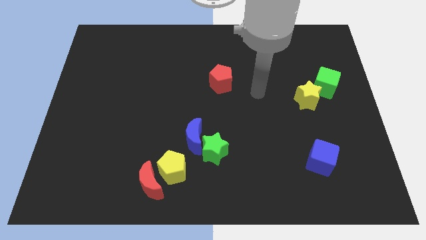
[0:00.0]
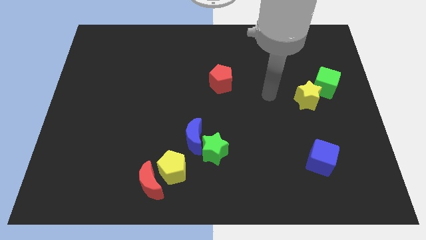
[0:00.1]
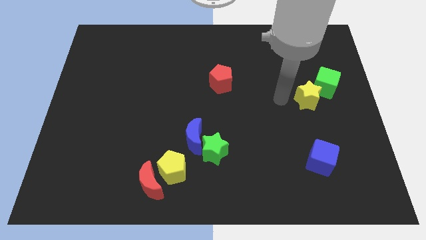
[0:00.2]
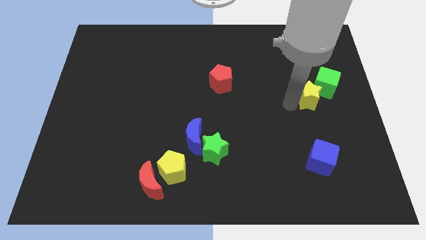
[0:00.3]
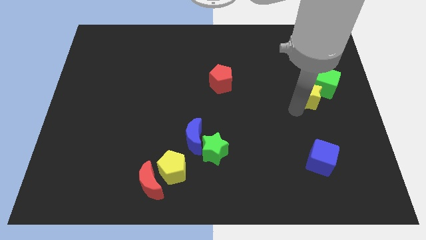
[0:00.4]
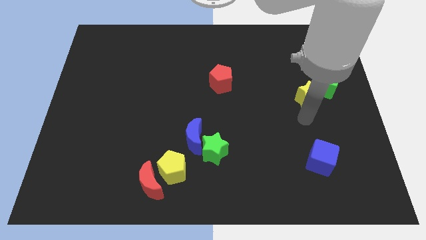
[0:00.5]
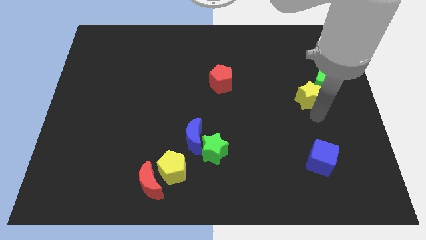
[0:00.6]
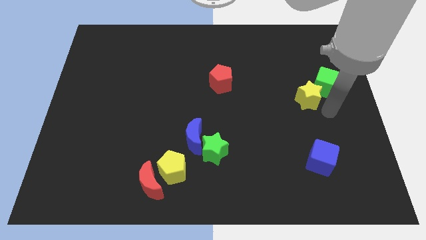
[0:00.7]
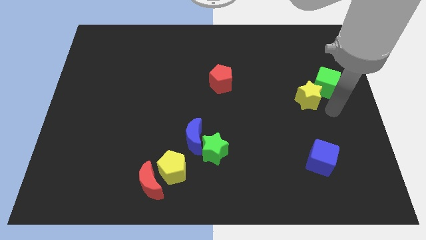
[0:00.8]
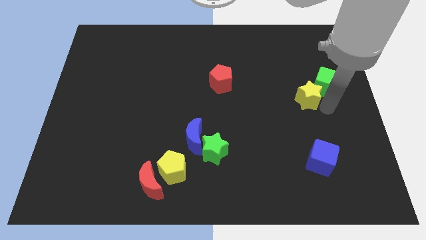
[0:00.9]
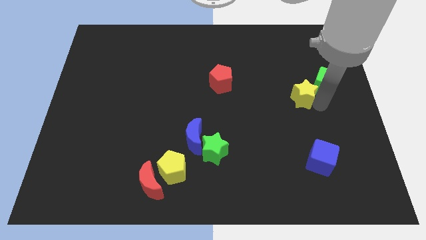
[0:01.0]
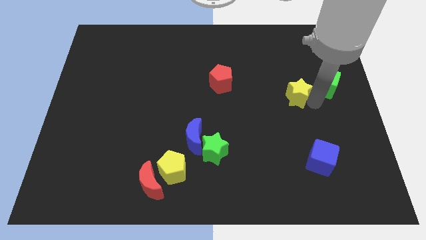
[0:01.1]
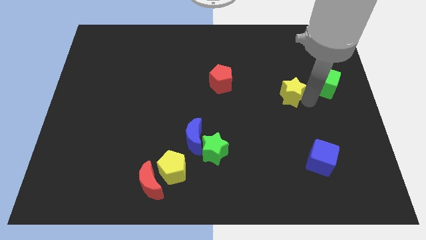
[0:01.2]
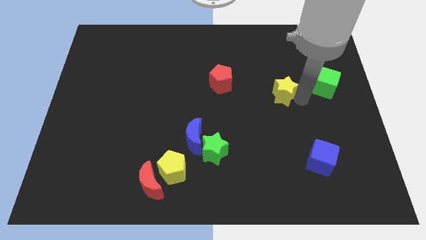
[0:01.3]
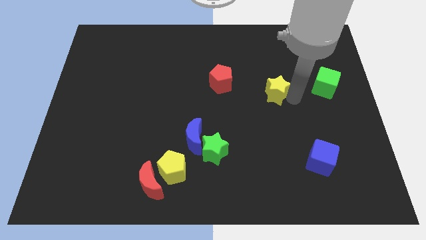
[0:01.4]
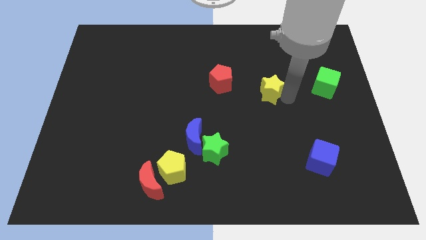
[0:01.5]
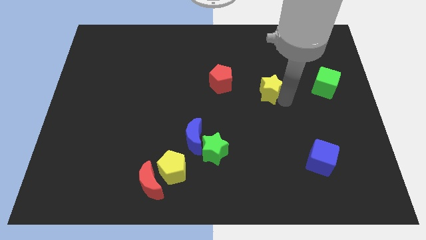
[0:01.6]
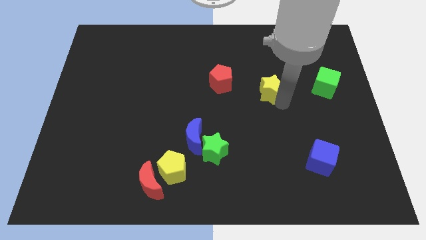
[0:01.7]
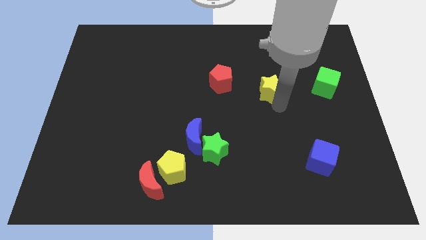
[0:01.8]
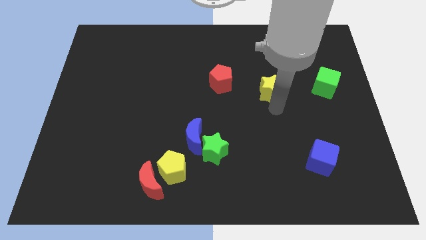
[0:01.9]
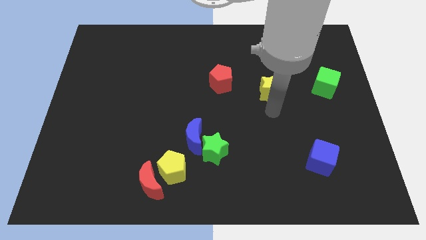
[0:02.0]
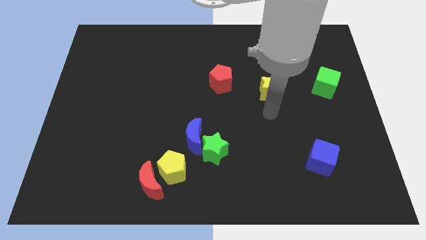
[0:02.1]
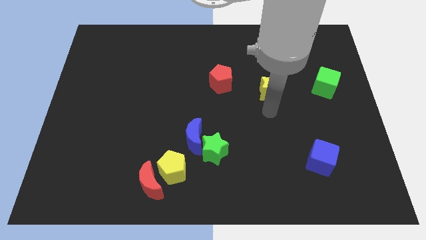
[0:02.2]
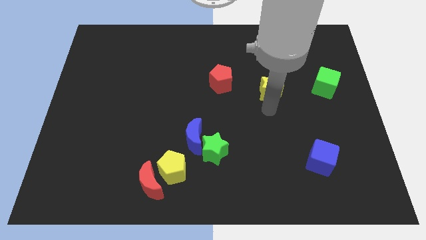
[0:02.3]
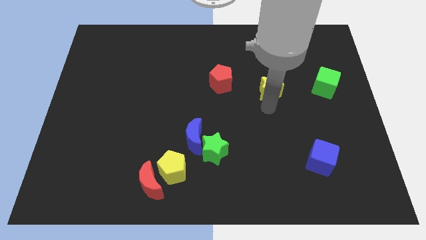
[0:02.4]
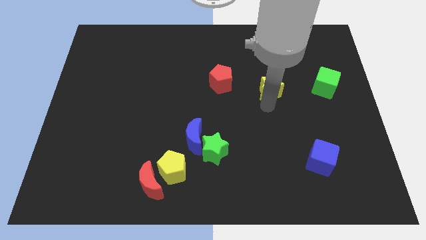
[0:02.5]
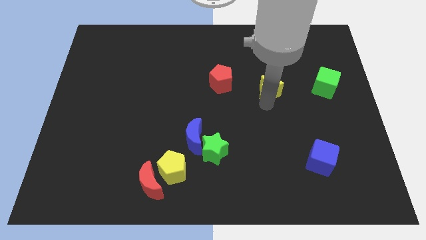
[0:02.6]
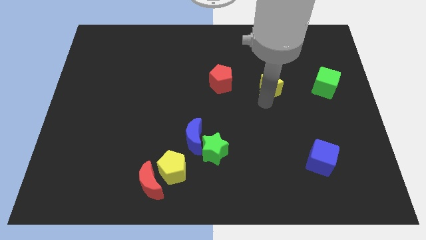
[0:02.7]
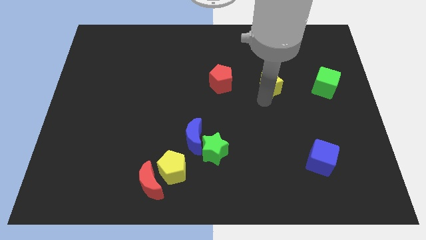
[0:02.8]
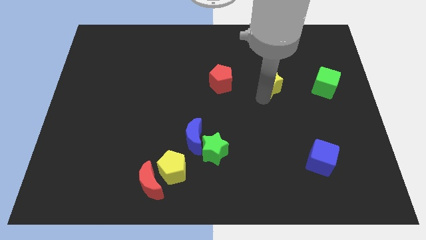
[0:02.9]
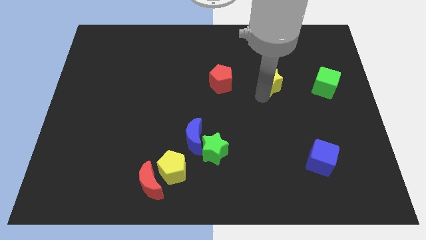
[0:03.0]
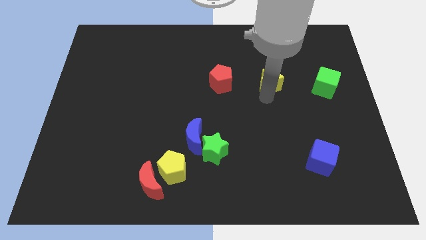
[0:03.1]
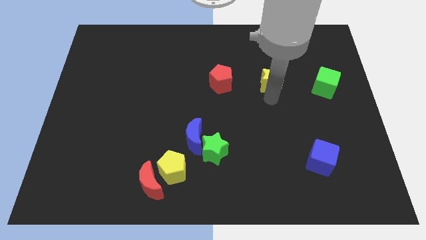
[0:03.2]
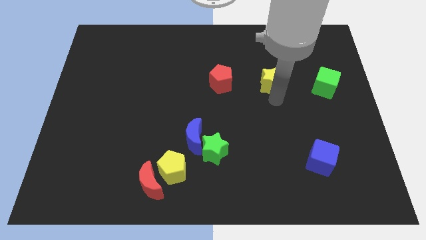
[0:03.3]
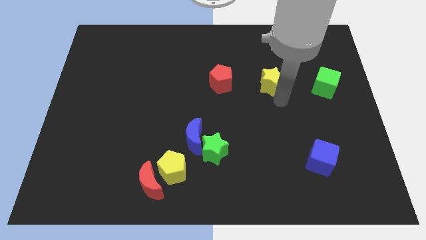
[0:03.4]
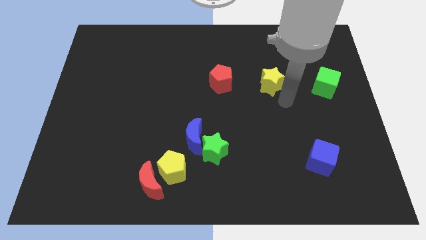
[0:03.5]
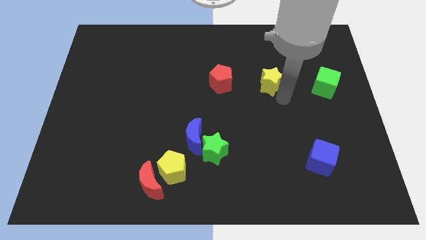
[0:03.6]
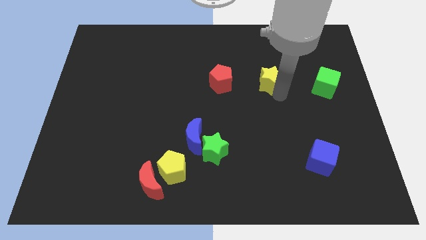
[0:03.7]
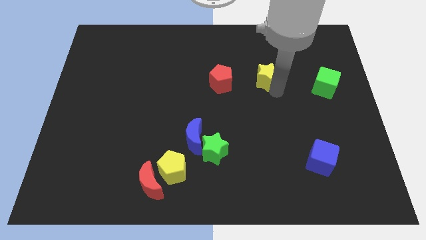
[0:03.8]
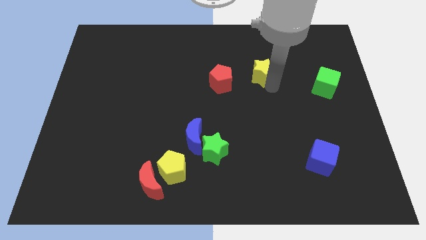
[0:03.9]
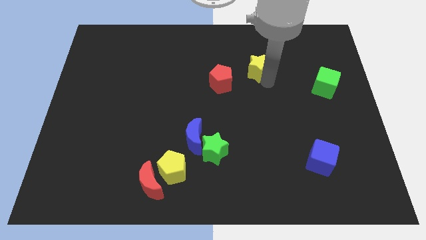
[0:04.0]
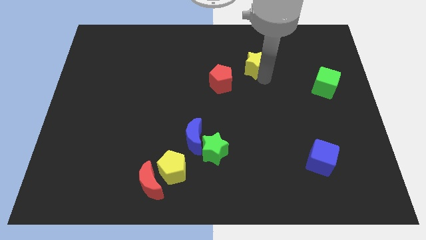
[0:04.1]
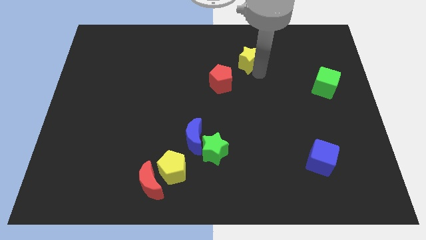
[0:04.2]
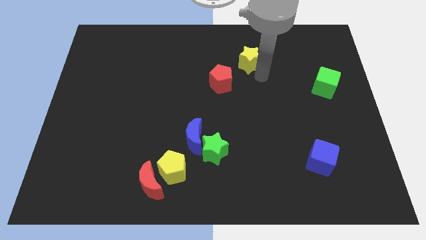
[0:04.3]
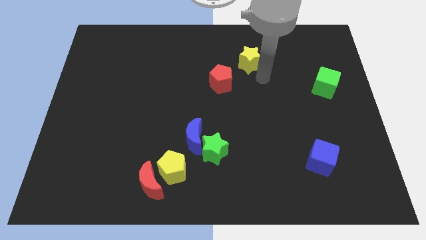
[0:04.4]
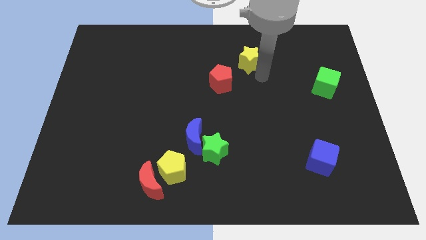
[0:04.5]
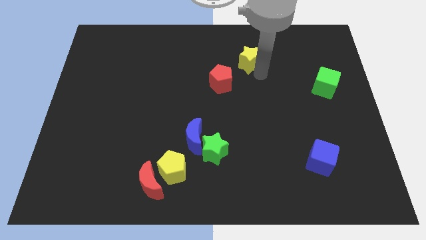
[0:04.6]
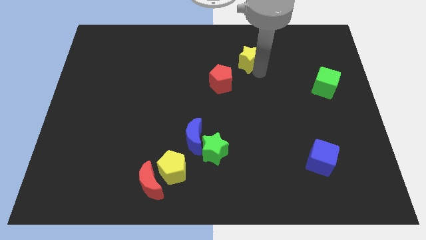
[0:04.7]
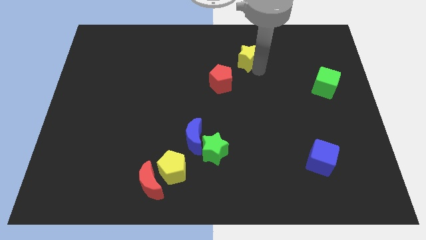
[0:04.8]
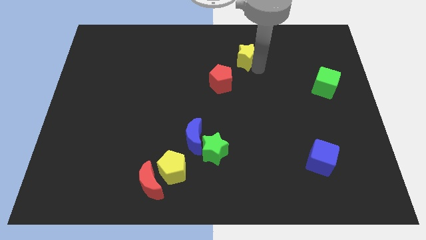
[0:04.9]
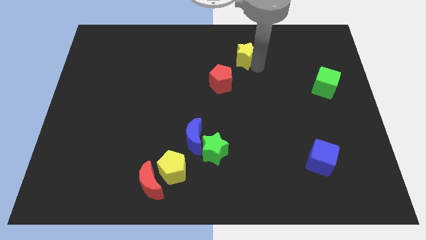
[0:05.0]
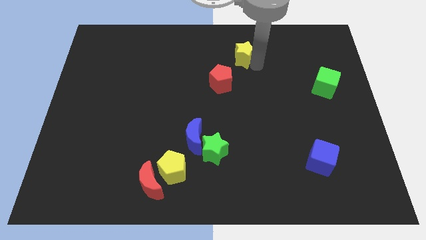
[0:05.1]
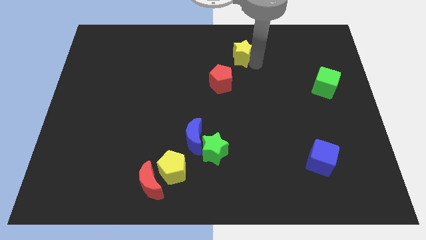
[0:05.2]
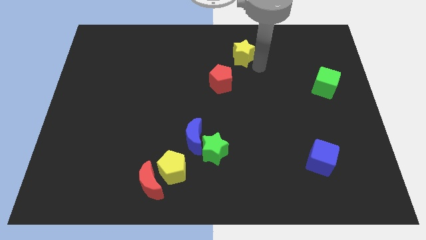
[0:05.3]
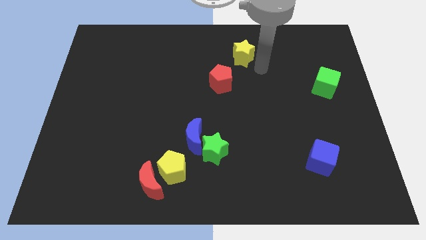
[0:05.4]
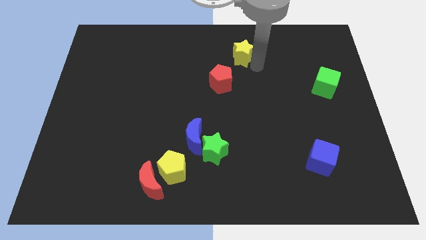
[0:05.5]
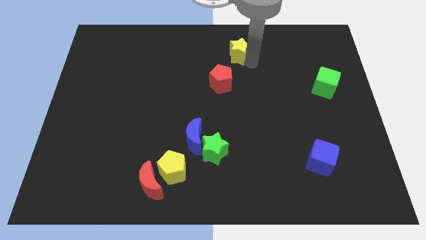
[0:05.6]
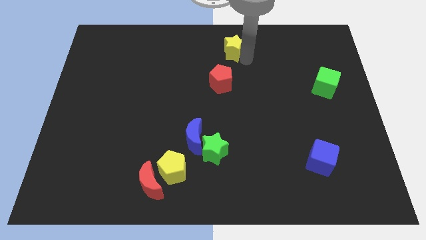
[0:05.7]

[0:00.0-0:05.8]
move the yellow star to the top side

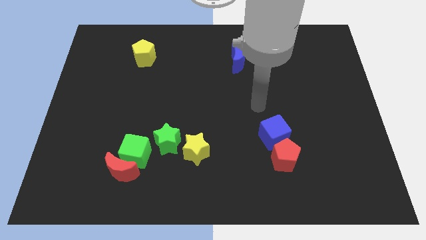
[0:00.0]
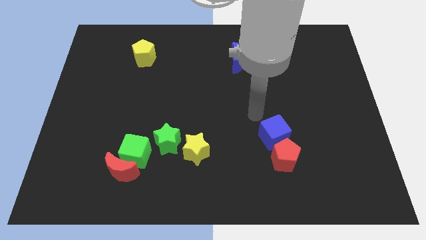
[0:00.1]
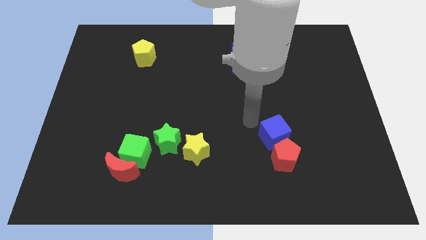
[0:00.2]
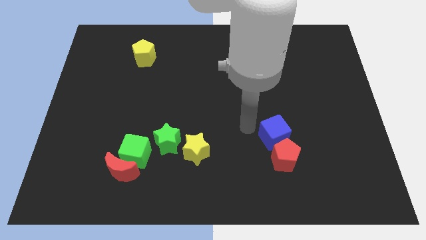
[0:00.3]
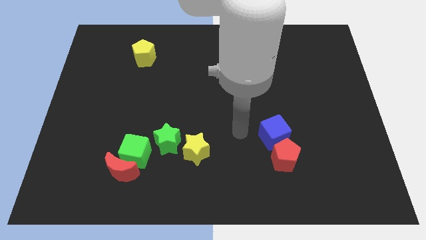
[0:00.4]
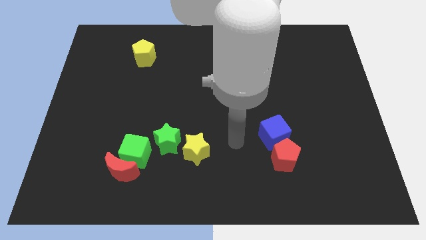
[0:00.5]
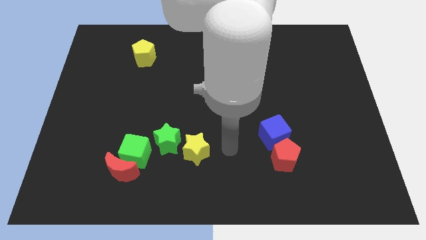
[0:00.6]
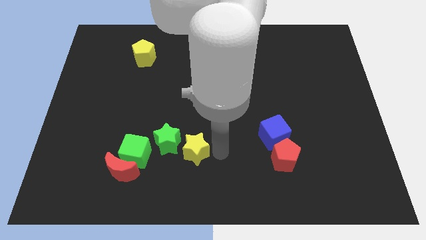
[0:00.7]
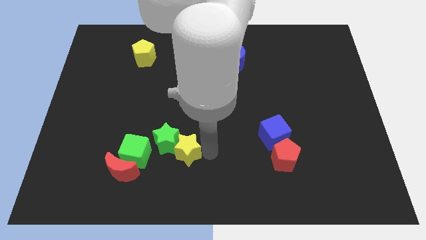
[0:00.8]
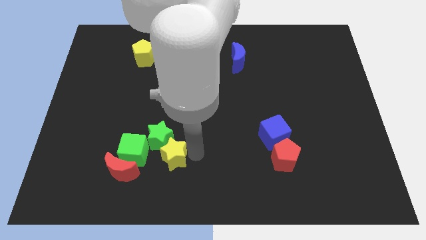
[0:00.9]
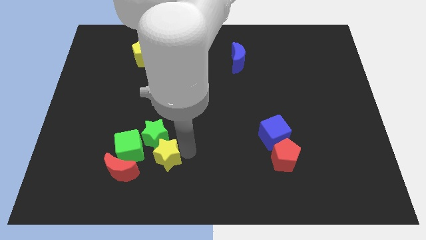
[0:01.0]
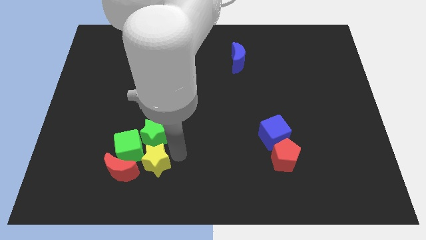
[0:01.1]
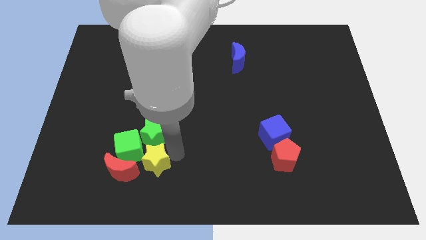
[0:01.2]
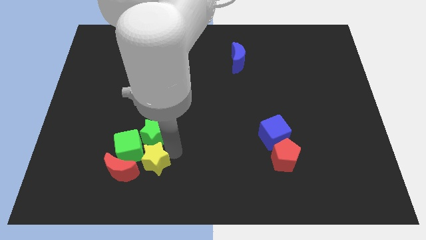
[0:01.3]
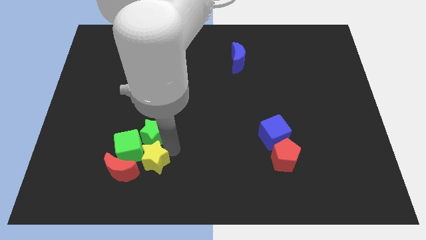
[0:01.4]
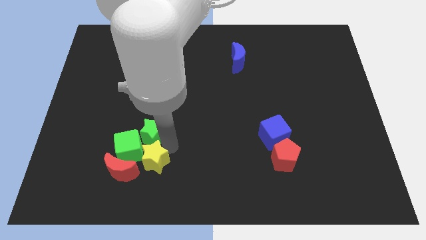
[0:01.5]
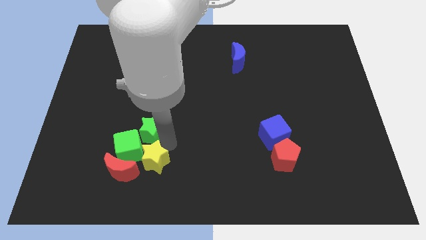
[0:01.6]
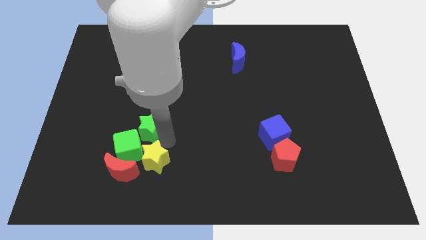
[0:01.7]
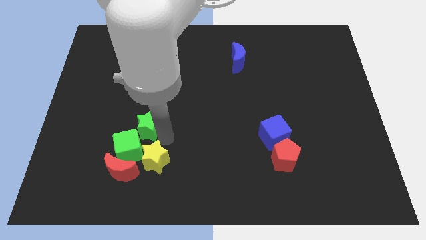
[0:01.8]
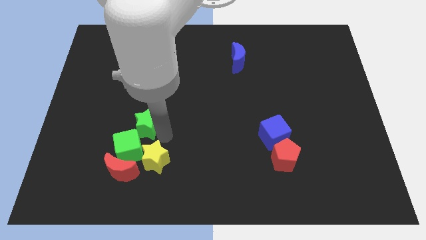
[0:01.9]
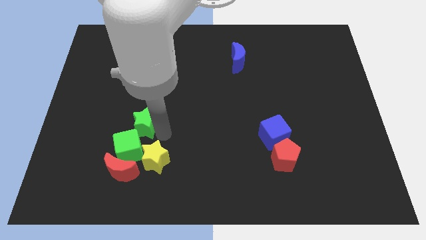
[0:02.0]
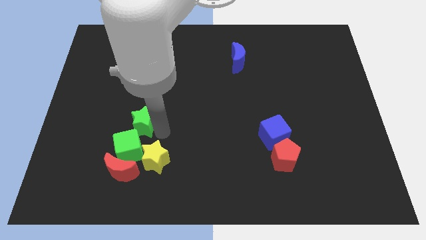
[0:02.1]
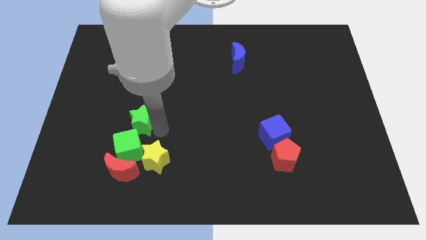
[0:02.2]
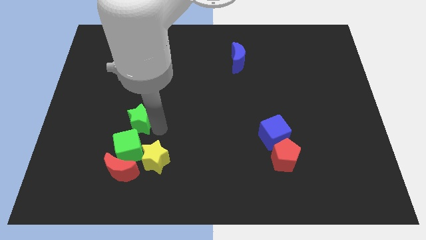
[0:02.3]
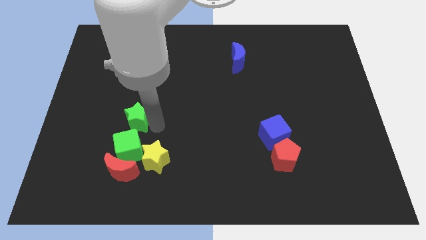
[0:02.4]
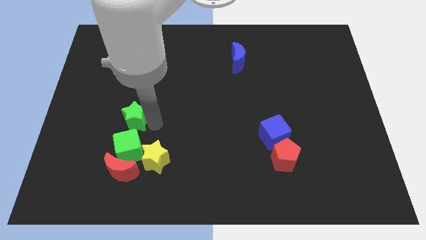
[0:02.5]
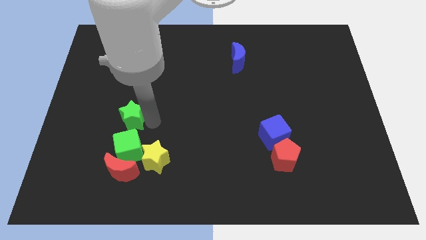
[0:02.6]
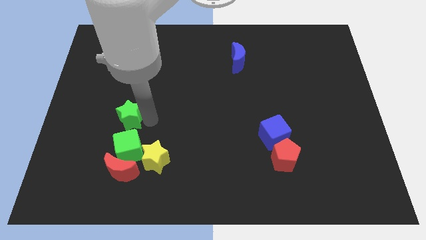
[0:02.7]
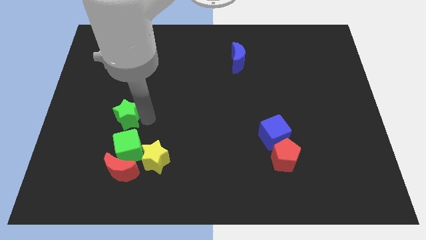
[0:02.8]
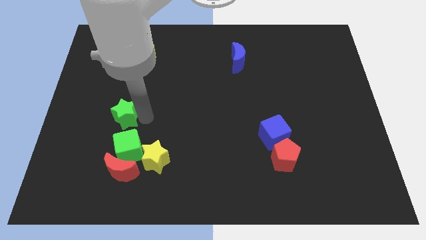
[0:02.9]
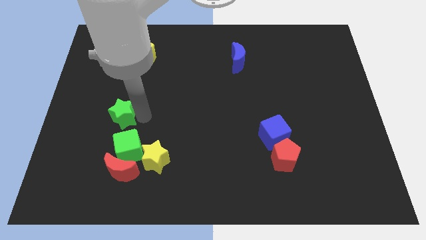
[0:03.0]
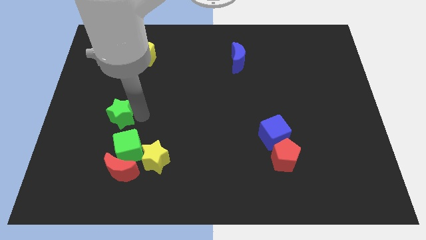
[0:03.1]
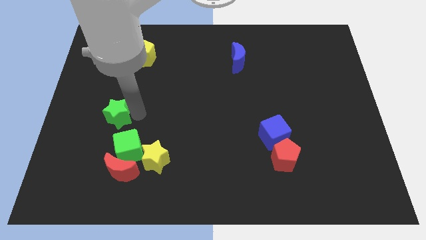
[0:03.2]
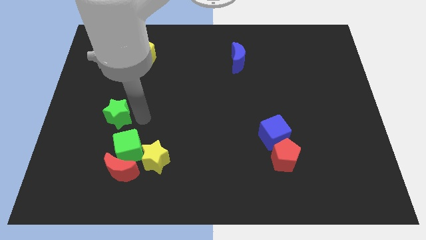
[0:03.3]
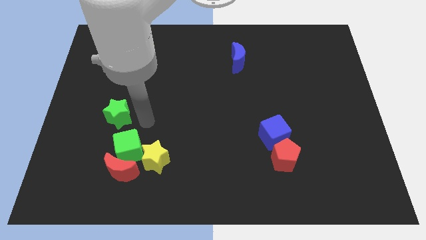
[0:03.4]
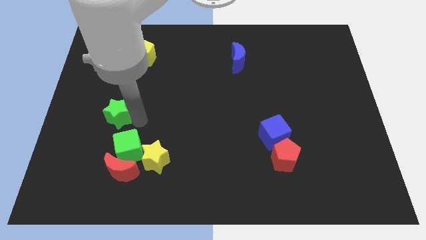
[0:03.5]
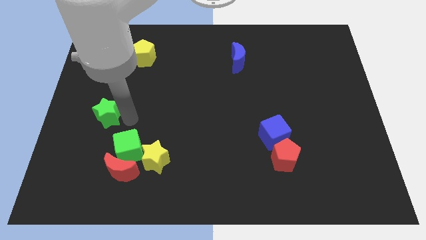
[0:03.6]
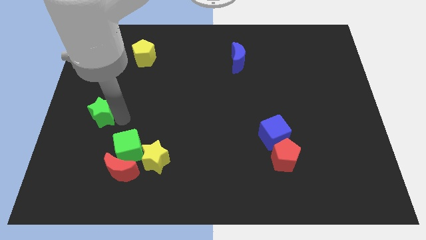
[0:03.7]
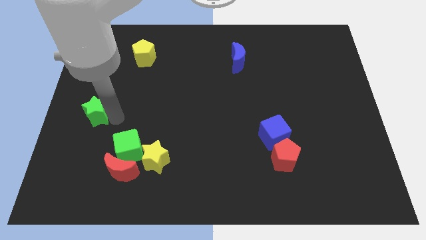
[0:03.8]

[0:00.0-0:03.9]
move the green star to the left side
